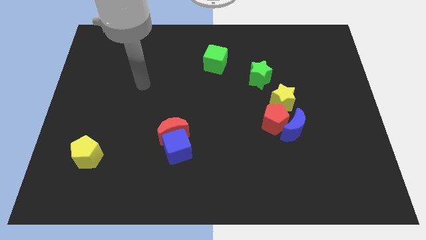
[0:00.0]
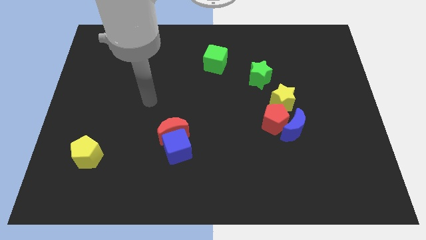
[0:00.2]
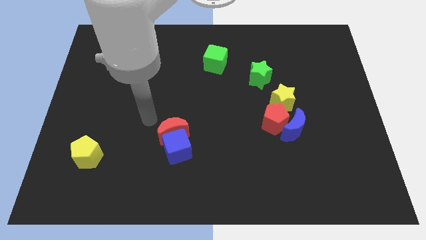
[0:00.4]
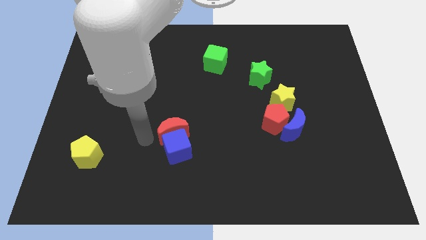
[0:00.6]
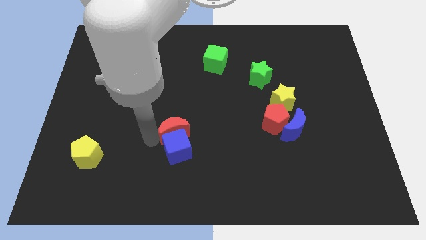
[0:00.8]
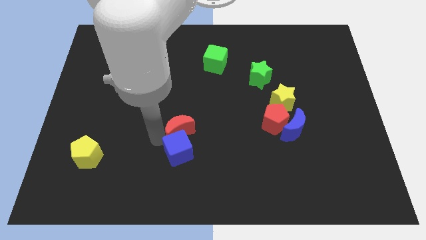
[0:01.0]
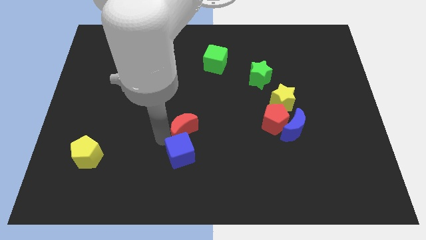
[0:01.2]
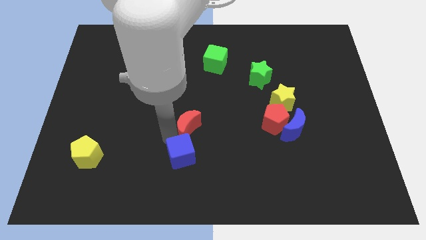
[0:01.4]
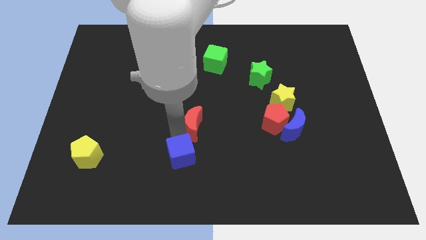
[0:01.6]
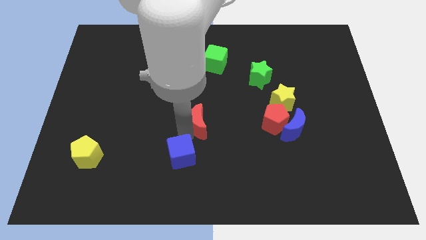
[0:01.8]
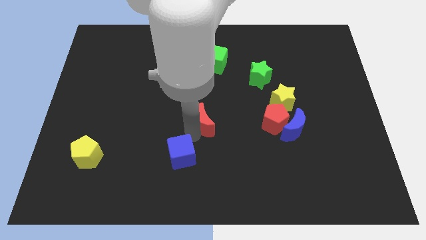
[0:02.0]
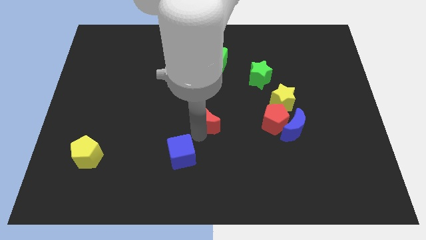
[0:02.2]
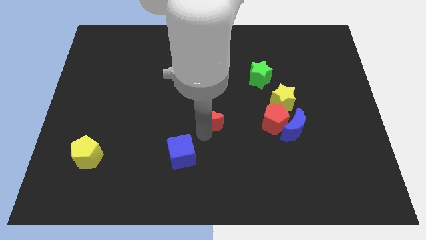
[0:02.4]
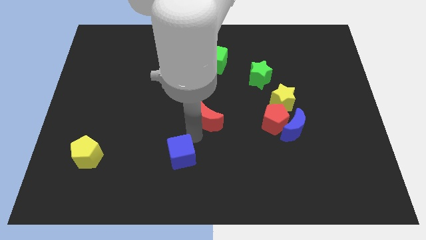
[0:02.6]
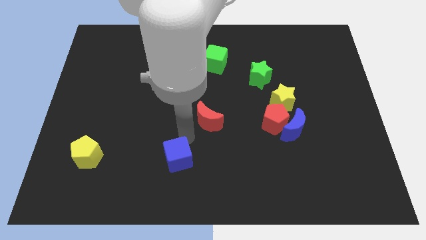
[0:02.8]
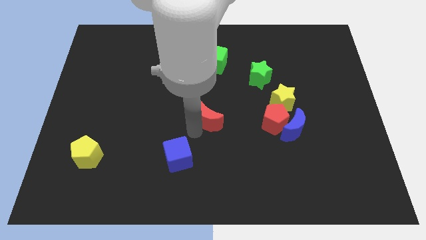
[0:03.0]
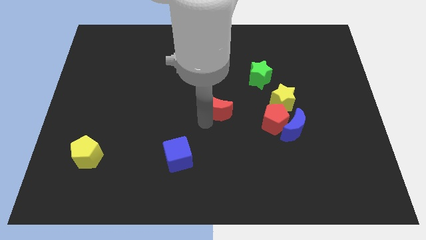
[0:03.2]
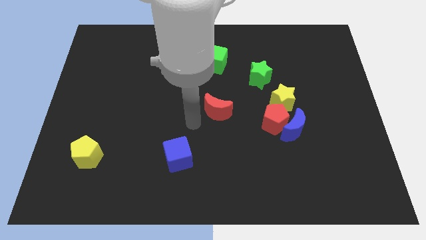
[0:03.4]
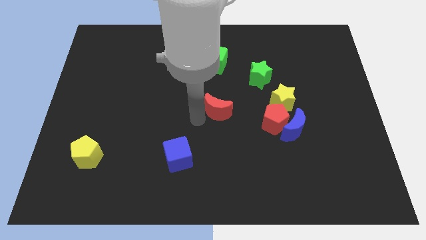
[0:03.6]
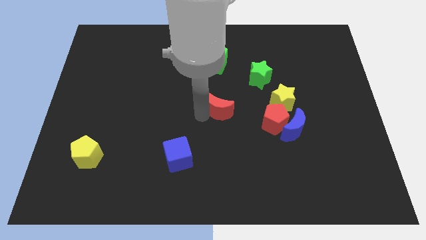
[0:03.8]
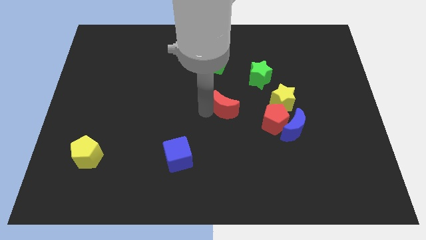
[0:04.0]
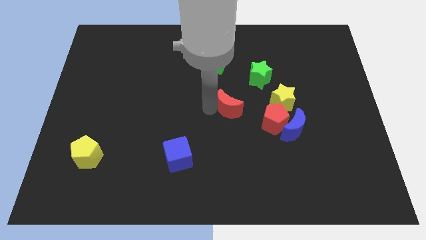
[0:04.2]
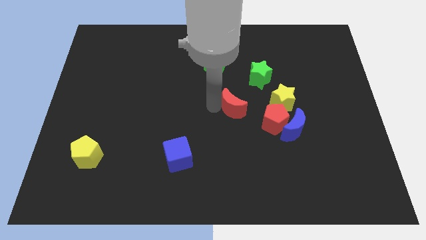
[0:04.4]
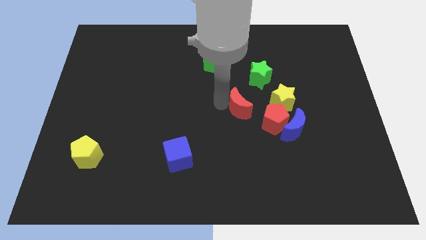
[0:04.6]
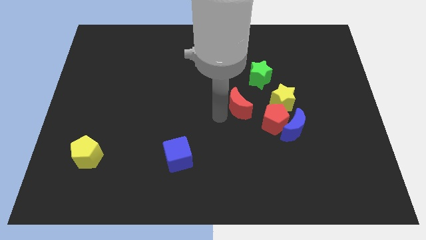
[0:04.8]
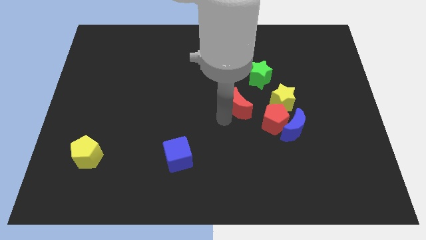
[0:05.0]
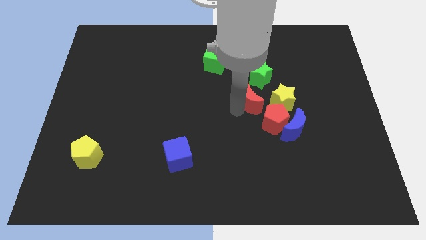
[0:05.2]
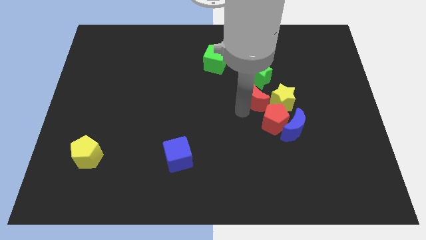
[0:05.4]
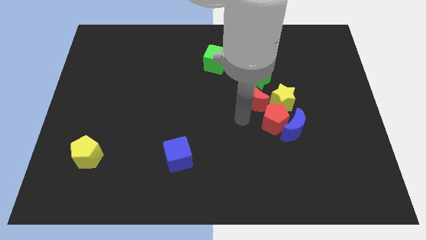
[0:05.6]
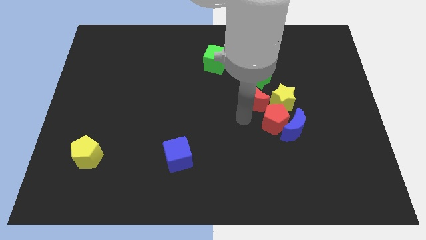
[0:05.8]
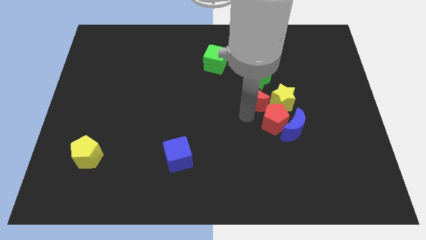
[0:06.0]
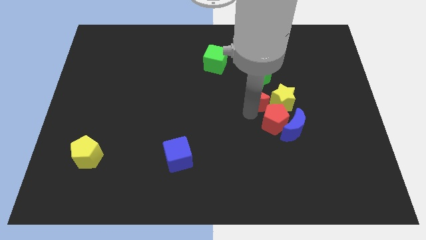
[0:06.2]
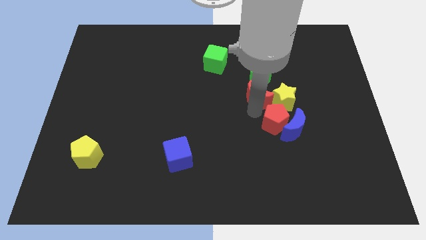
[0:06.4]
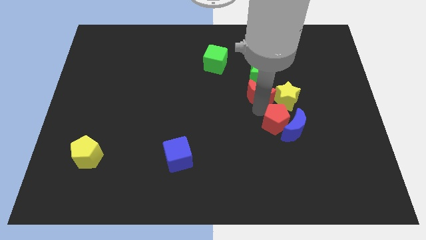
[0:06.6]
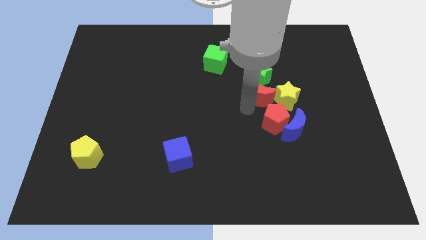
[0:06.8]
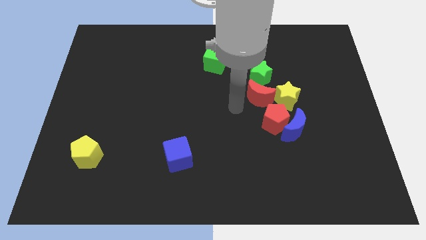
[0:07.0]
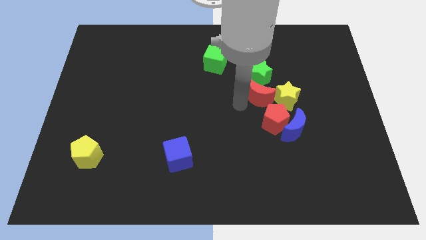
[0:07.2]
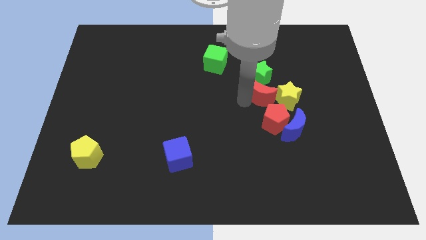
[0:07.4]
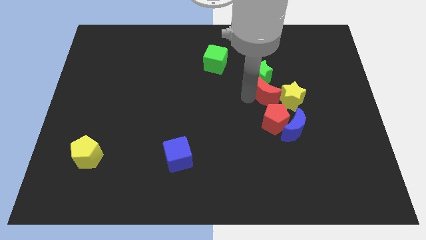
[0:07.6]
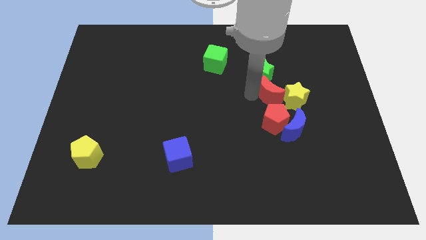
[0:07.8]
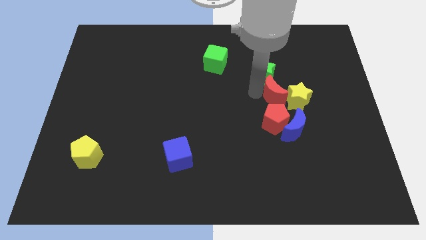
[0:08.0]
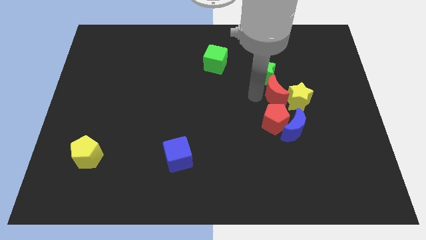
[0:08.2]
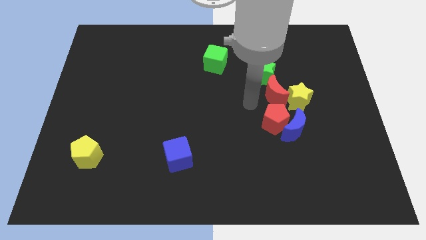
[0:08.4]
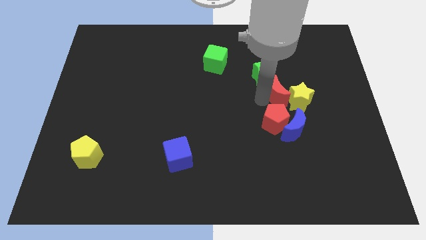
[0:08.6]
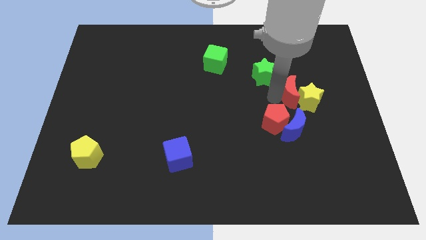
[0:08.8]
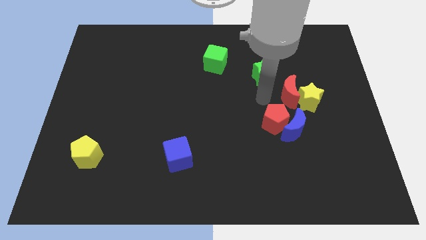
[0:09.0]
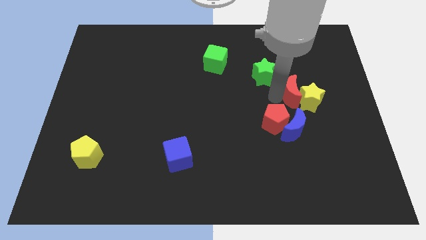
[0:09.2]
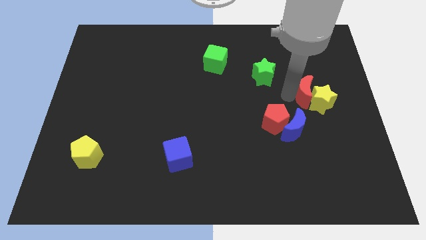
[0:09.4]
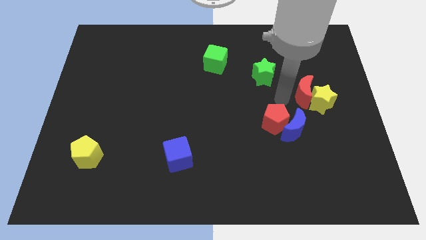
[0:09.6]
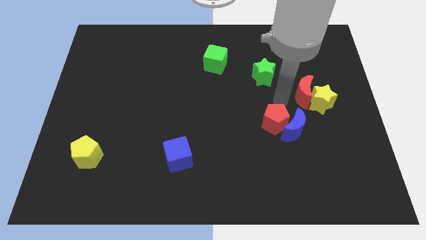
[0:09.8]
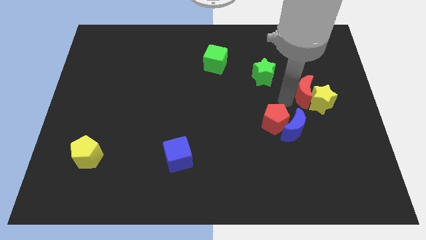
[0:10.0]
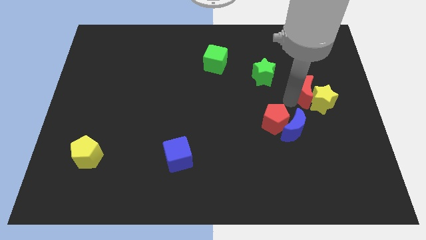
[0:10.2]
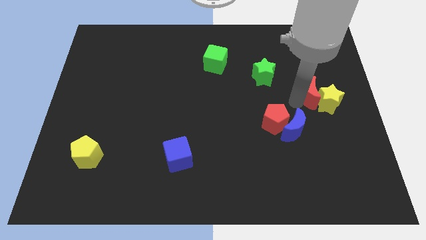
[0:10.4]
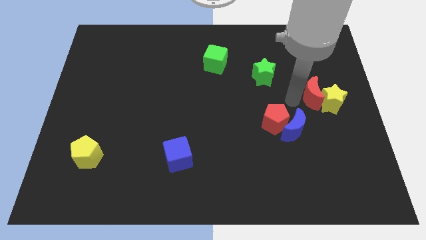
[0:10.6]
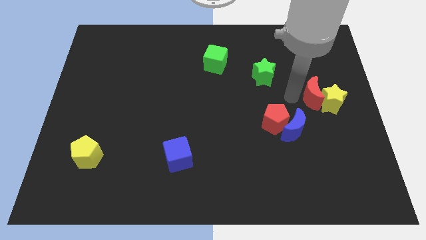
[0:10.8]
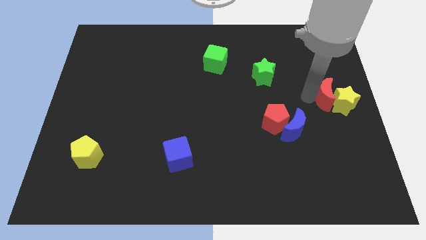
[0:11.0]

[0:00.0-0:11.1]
move the red moon to the right side
